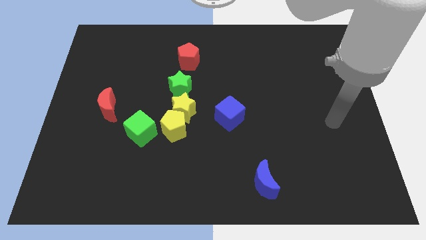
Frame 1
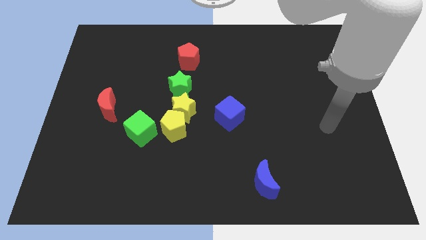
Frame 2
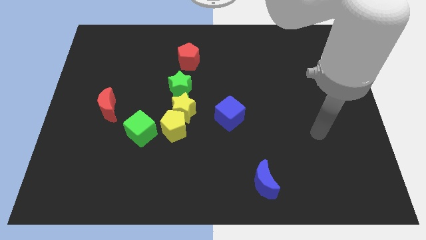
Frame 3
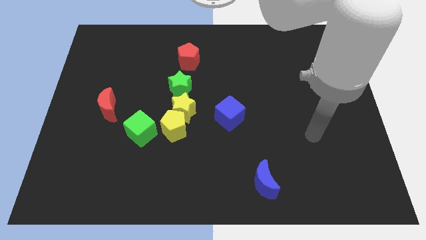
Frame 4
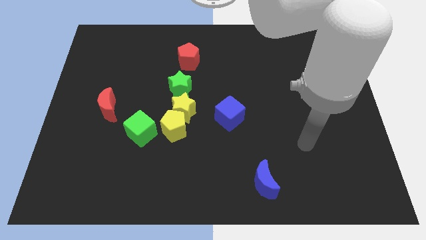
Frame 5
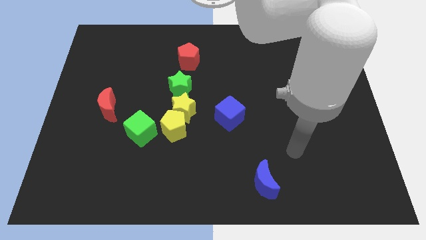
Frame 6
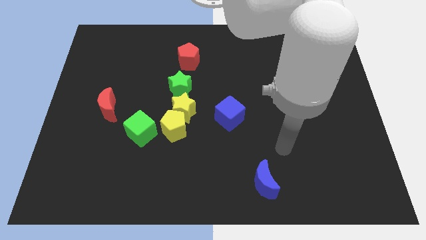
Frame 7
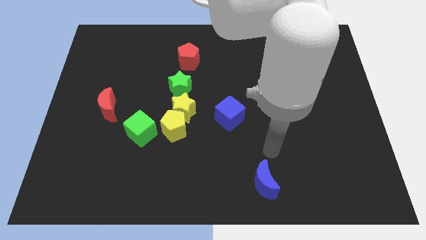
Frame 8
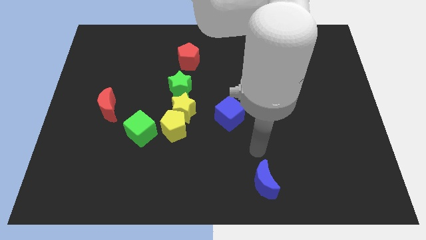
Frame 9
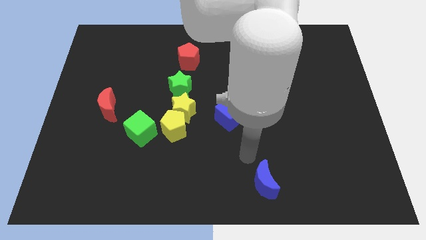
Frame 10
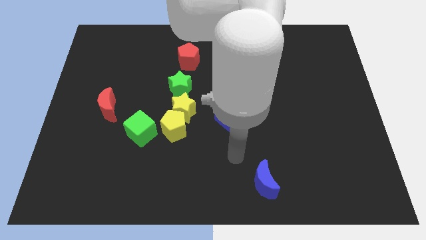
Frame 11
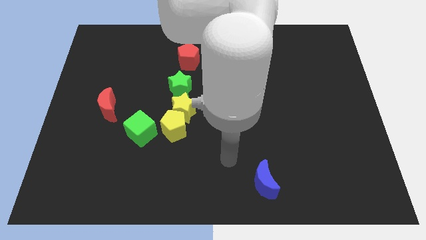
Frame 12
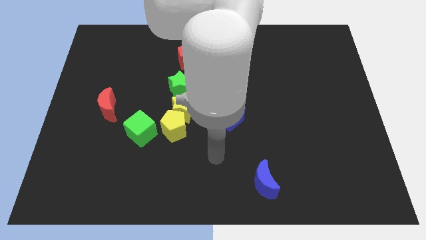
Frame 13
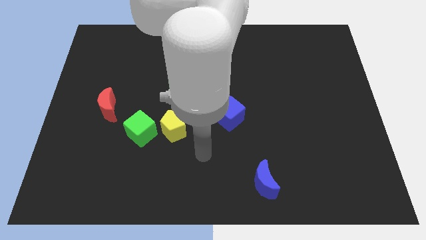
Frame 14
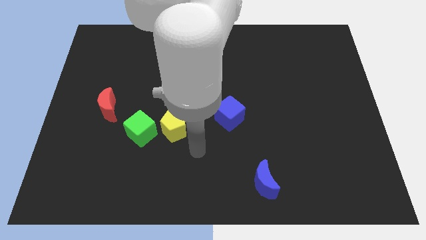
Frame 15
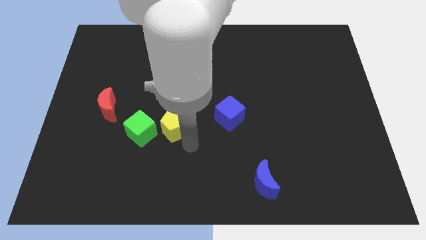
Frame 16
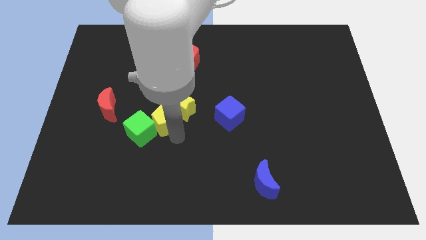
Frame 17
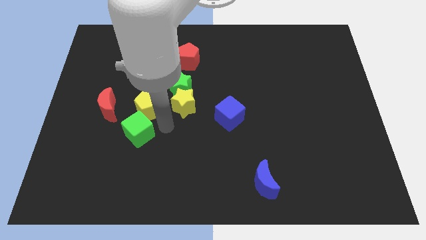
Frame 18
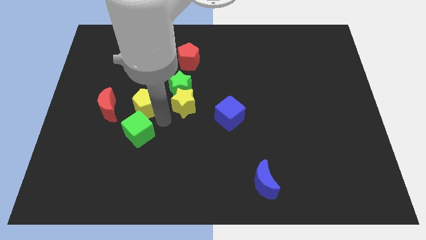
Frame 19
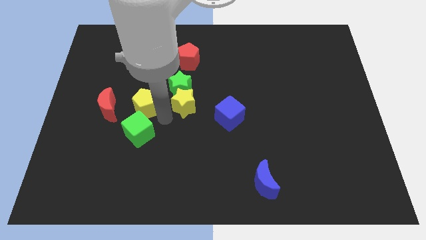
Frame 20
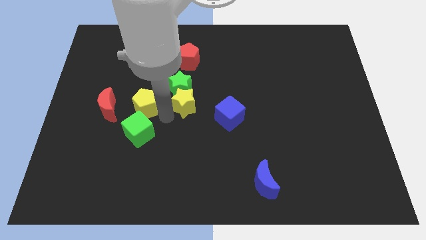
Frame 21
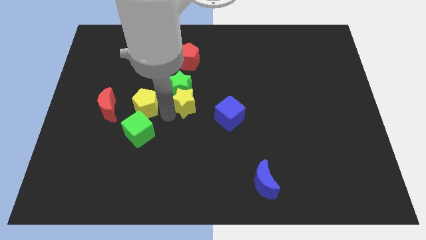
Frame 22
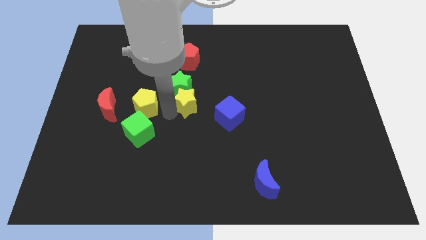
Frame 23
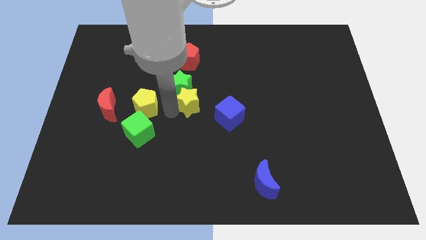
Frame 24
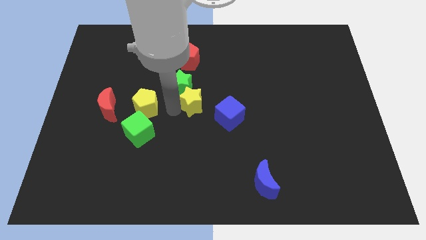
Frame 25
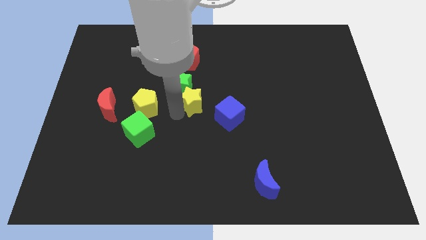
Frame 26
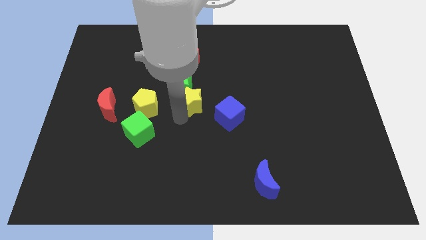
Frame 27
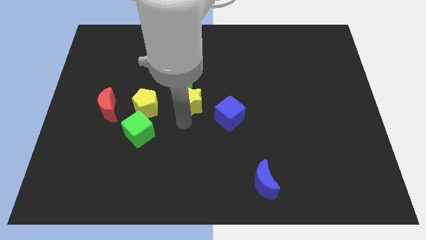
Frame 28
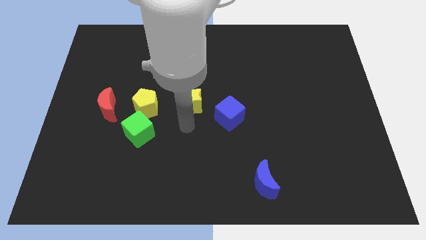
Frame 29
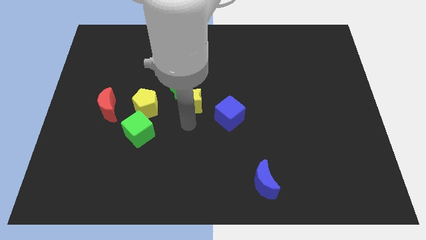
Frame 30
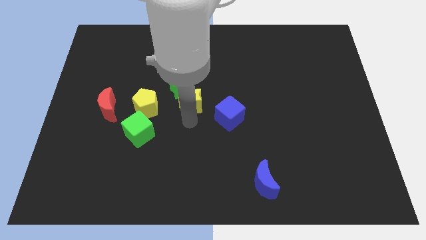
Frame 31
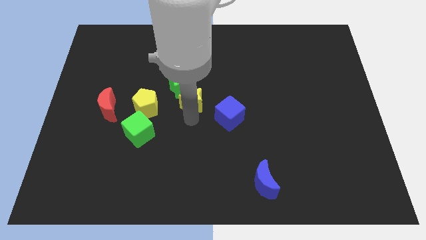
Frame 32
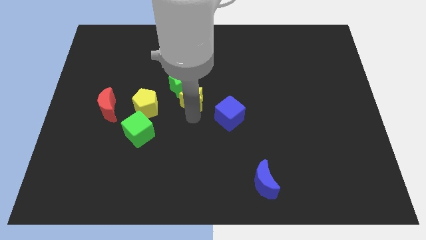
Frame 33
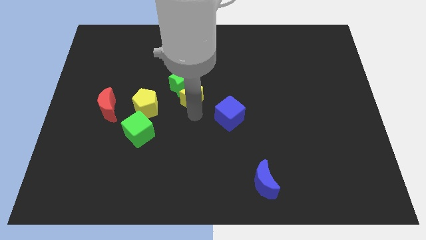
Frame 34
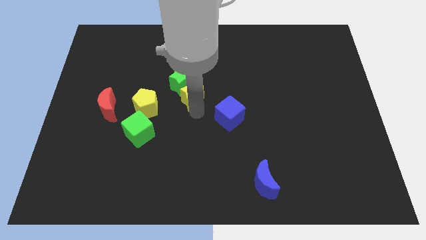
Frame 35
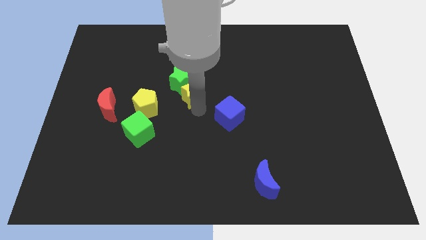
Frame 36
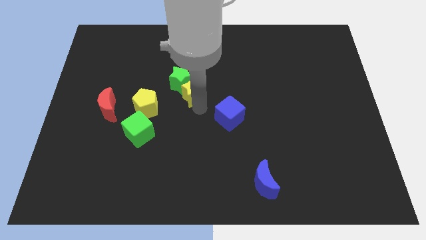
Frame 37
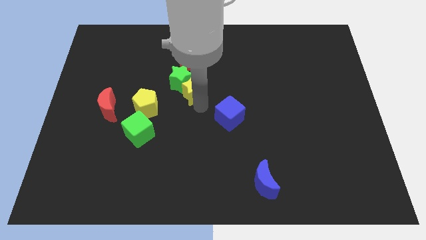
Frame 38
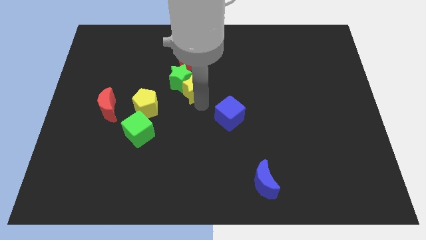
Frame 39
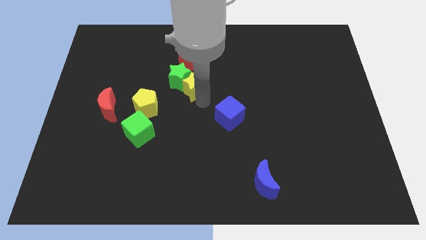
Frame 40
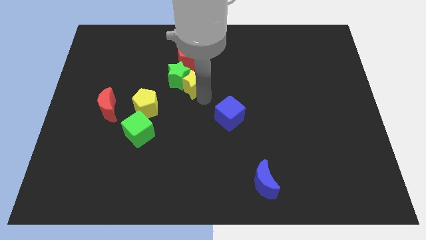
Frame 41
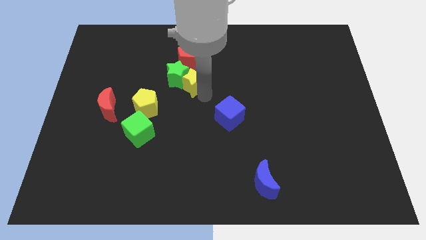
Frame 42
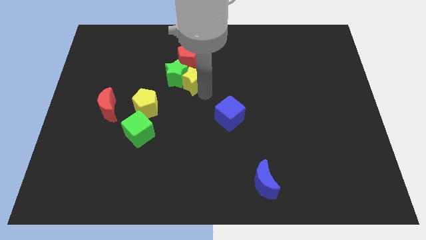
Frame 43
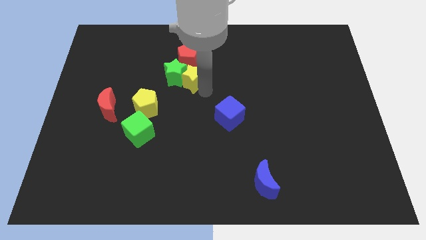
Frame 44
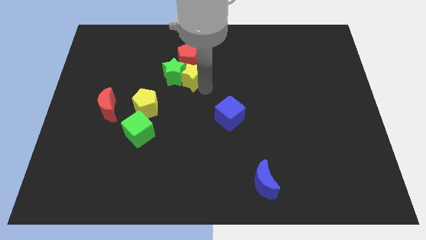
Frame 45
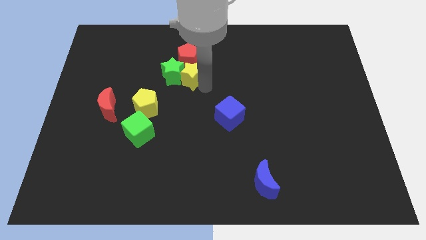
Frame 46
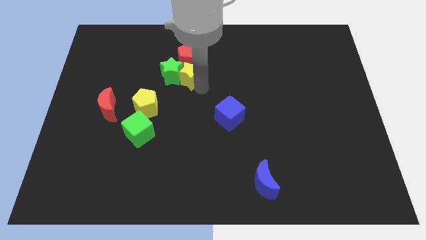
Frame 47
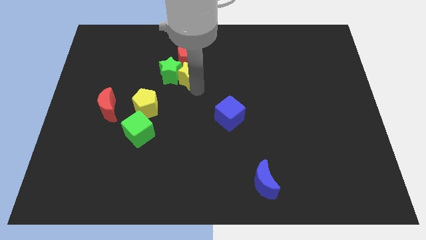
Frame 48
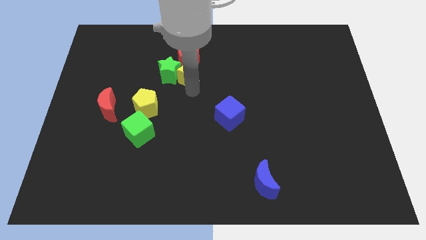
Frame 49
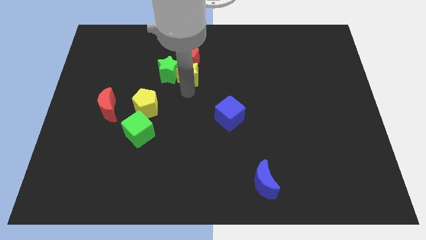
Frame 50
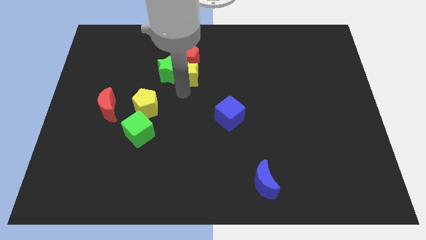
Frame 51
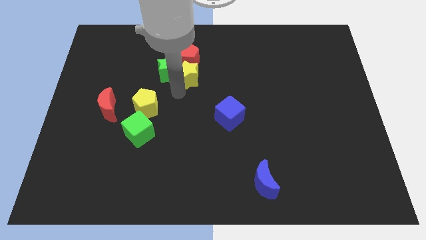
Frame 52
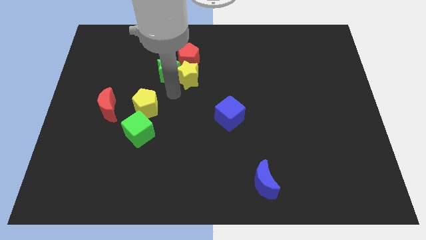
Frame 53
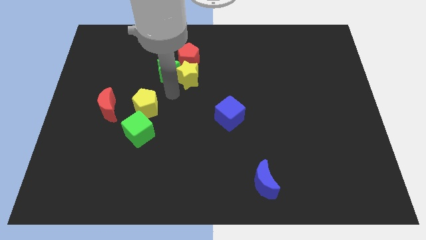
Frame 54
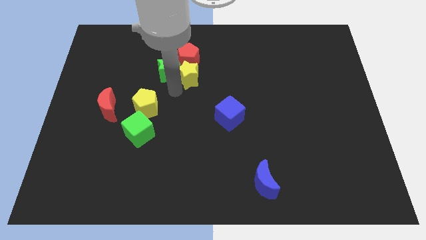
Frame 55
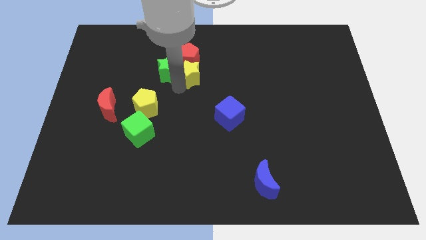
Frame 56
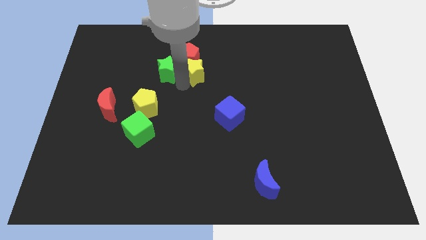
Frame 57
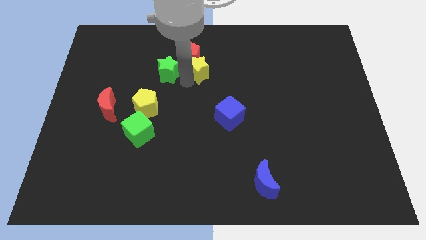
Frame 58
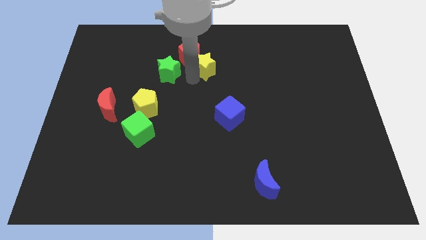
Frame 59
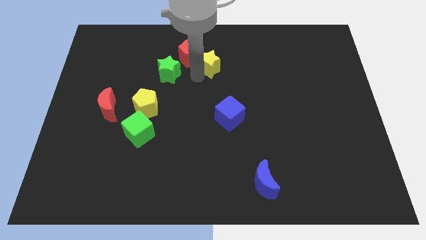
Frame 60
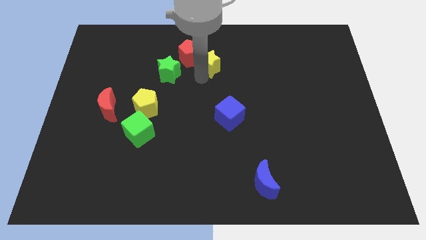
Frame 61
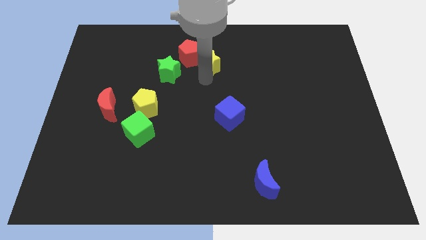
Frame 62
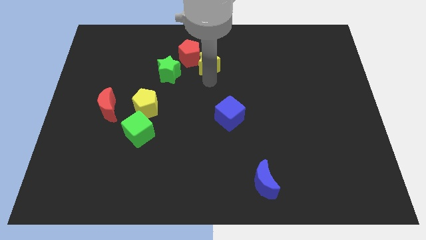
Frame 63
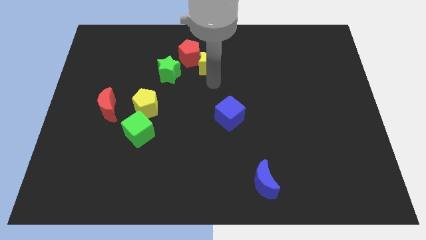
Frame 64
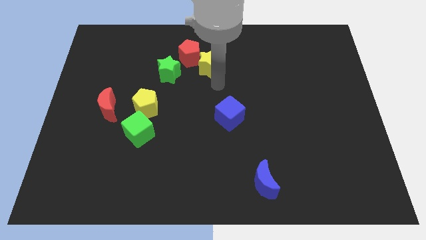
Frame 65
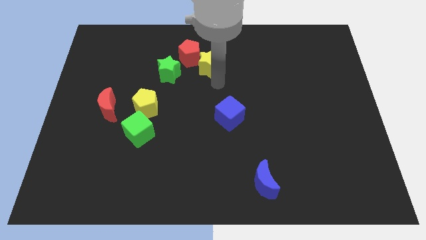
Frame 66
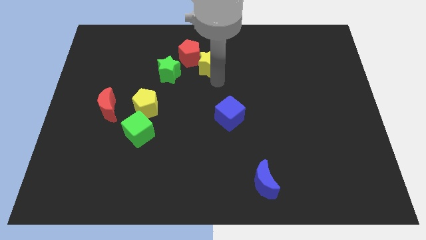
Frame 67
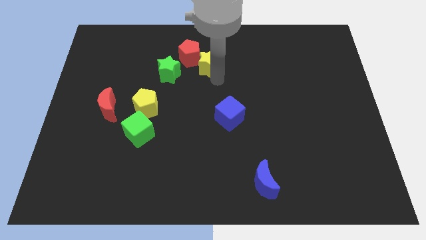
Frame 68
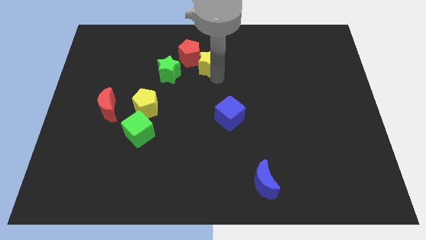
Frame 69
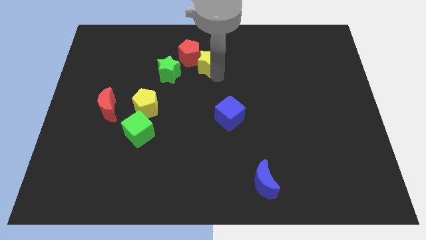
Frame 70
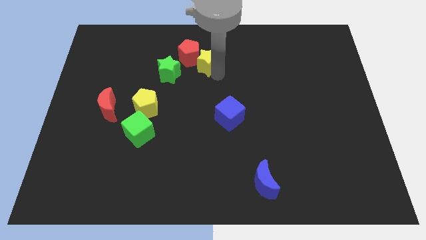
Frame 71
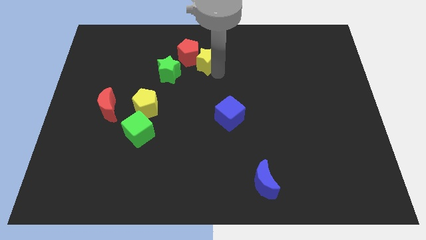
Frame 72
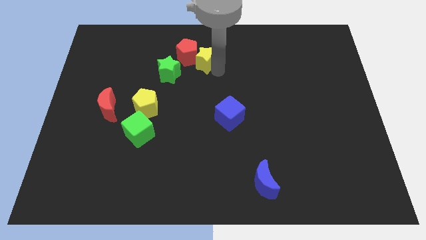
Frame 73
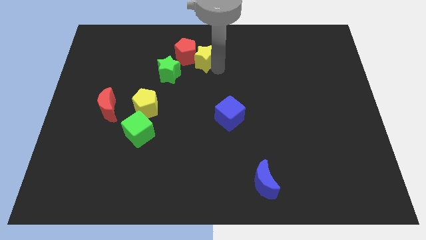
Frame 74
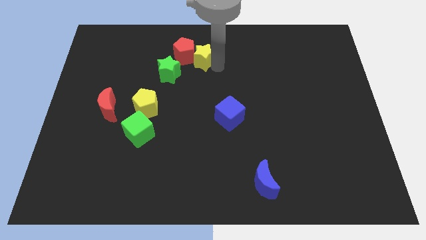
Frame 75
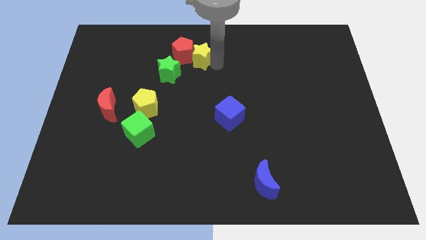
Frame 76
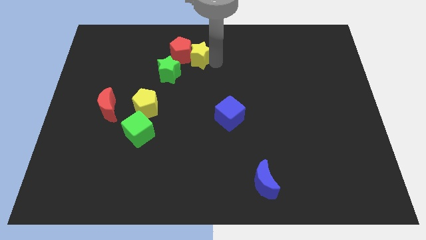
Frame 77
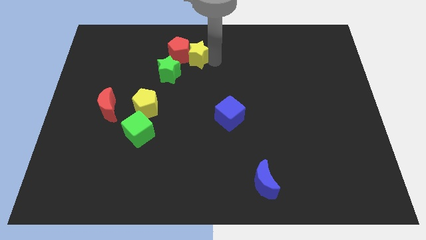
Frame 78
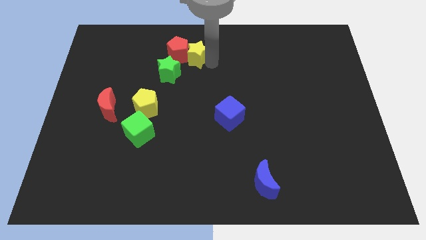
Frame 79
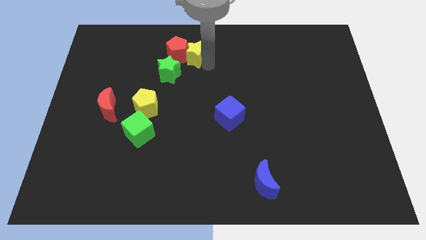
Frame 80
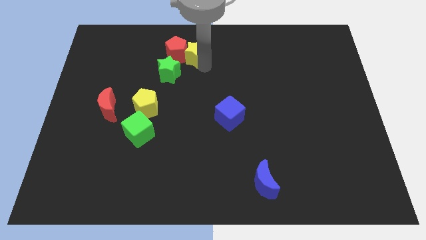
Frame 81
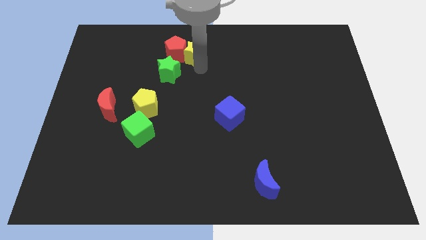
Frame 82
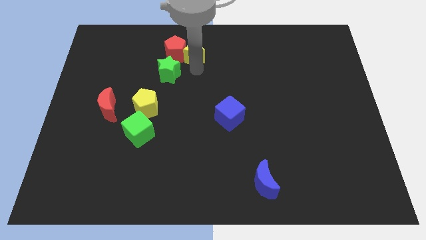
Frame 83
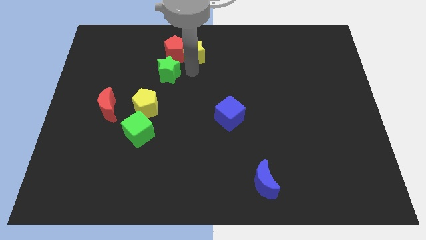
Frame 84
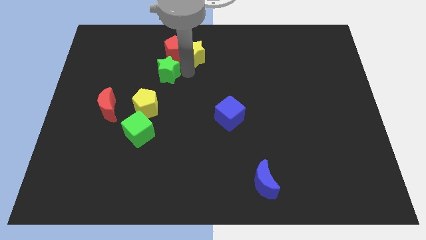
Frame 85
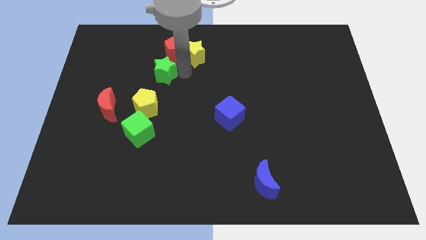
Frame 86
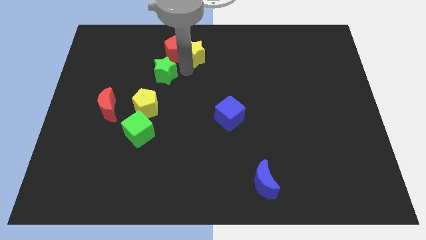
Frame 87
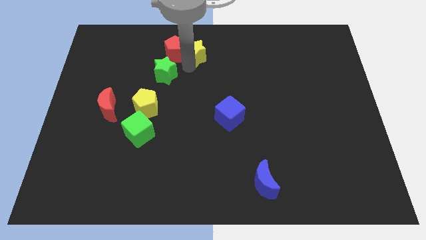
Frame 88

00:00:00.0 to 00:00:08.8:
slide the yellow star to the top
